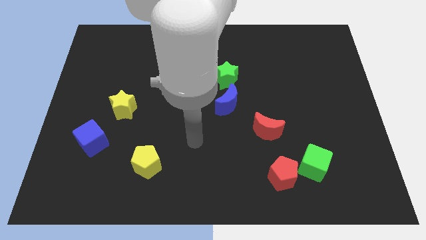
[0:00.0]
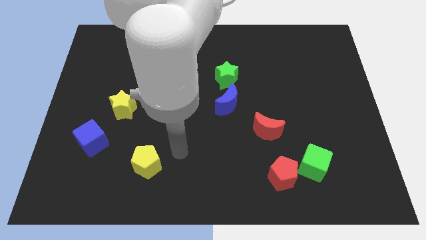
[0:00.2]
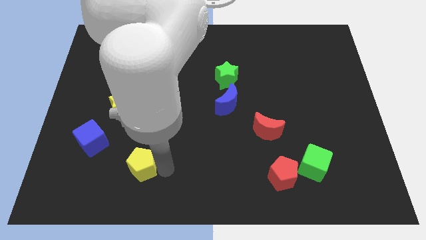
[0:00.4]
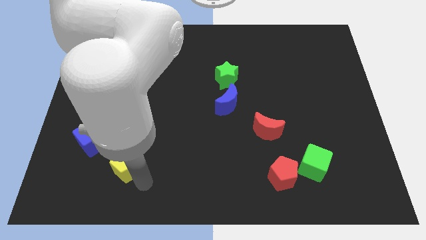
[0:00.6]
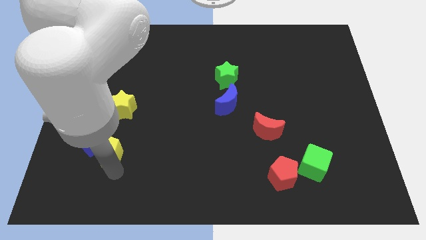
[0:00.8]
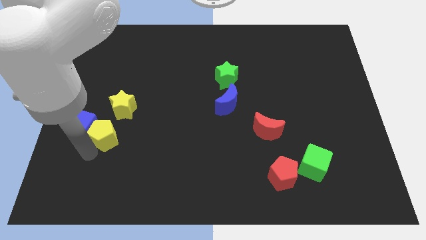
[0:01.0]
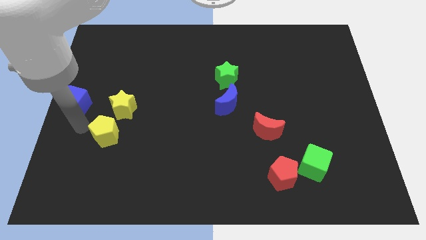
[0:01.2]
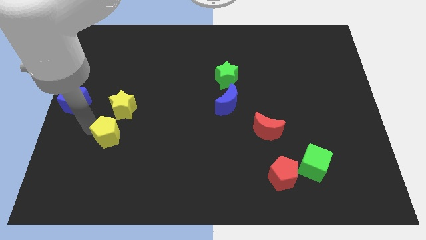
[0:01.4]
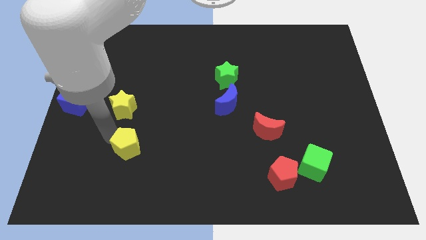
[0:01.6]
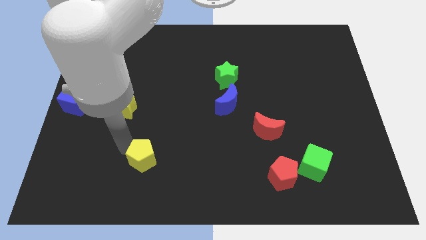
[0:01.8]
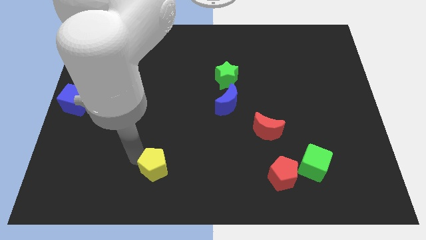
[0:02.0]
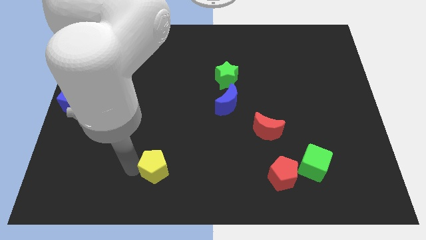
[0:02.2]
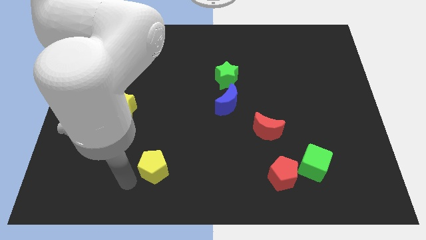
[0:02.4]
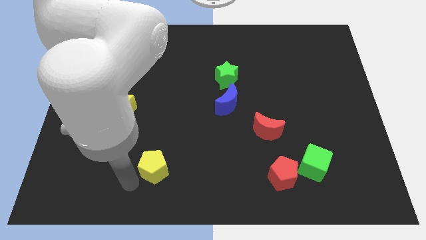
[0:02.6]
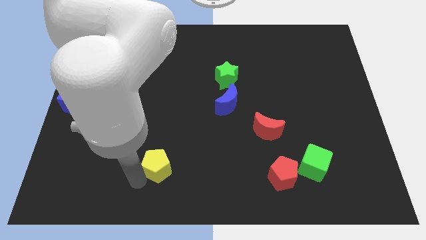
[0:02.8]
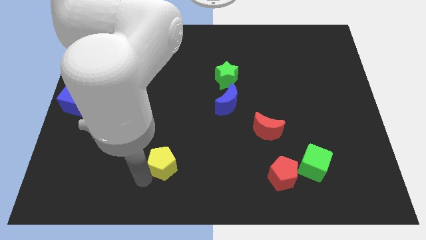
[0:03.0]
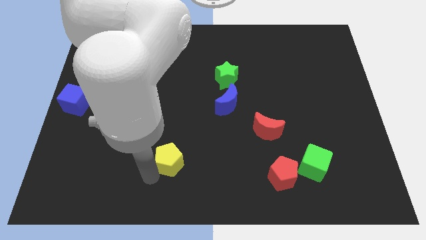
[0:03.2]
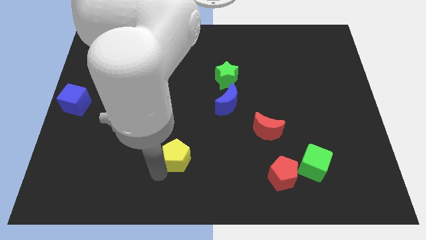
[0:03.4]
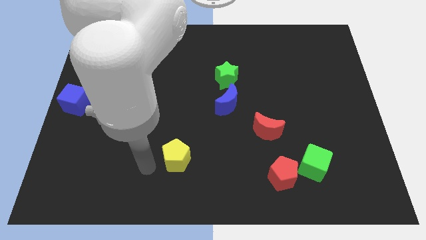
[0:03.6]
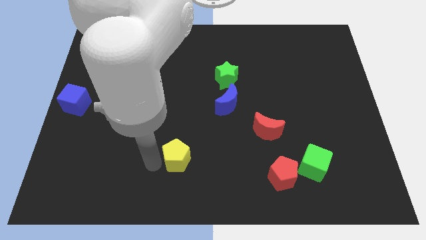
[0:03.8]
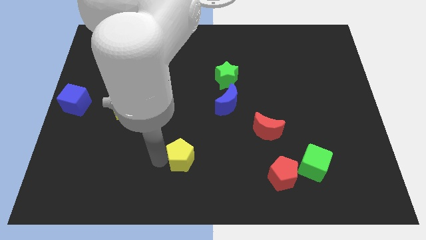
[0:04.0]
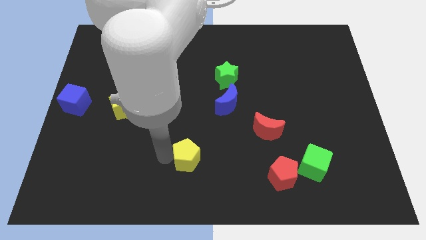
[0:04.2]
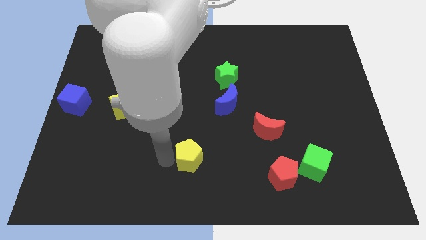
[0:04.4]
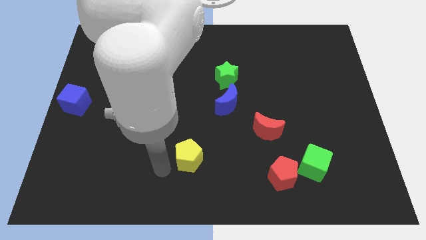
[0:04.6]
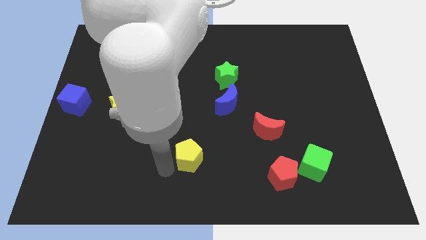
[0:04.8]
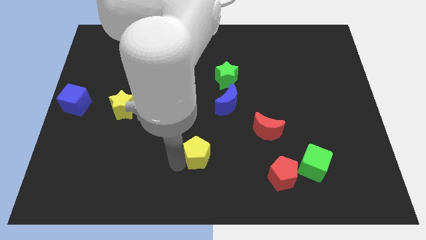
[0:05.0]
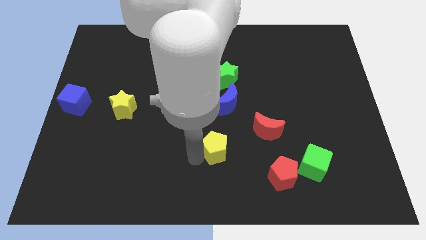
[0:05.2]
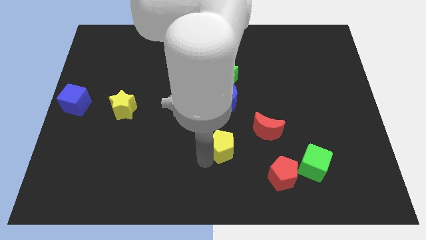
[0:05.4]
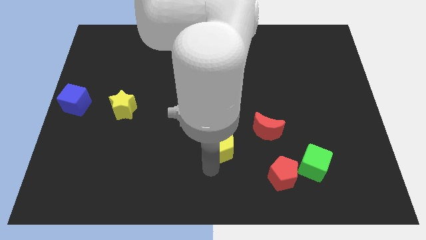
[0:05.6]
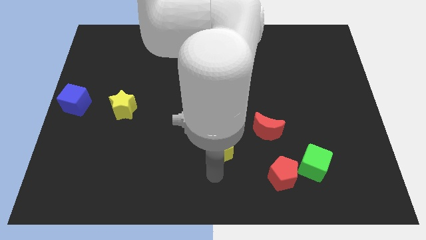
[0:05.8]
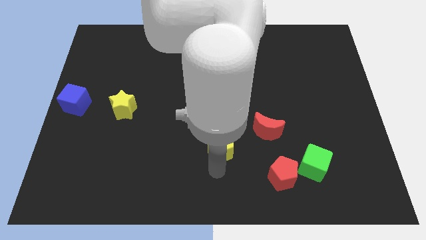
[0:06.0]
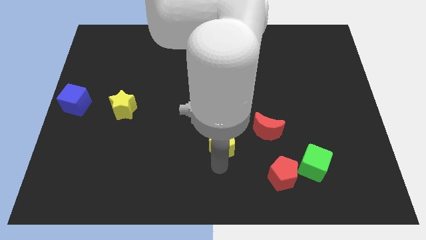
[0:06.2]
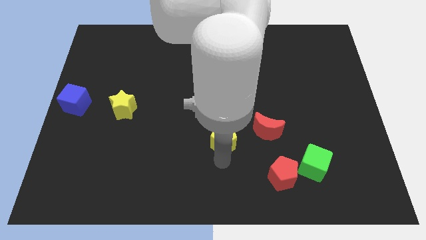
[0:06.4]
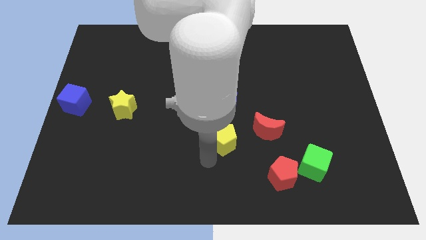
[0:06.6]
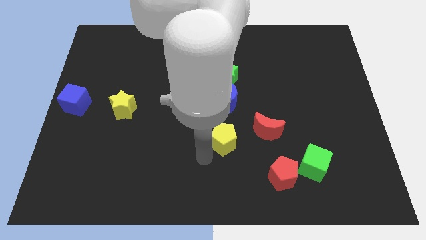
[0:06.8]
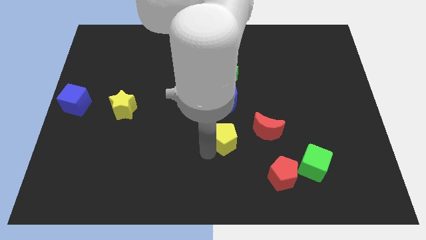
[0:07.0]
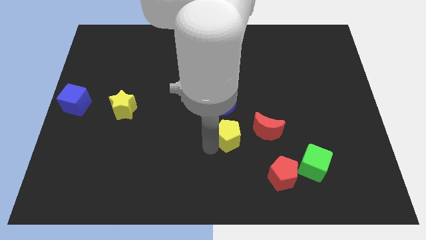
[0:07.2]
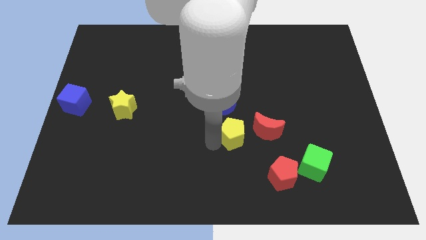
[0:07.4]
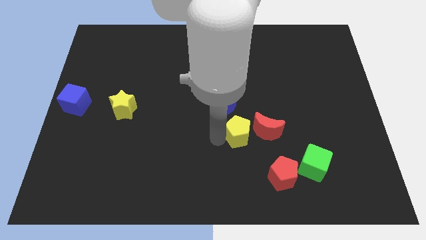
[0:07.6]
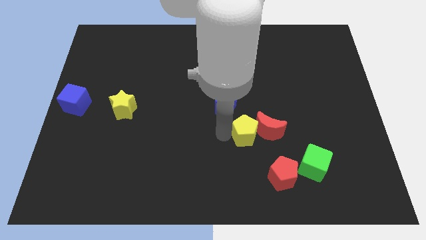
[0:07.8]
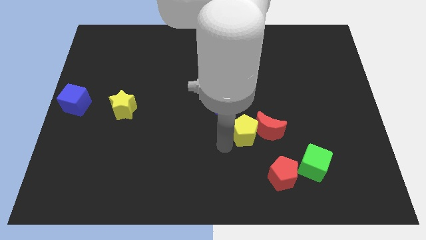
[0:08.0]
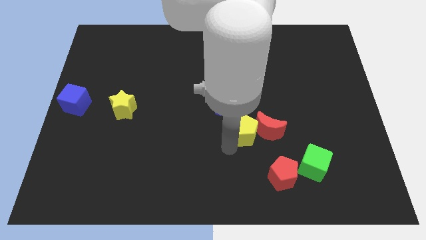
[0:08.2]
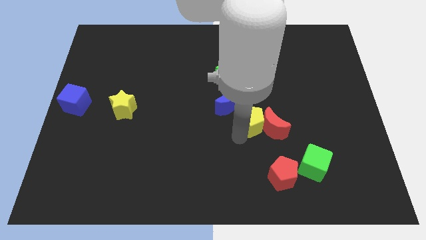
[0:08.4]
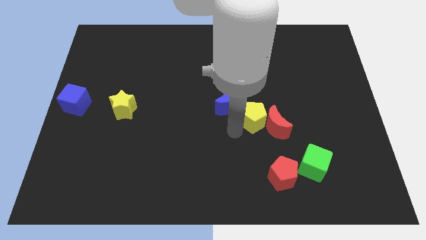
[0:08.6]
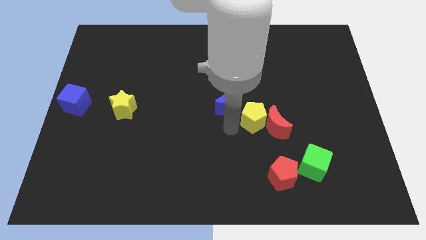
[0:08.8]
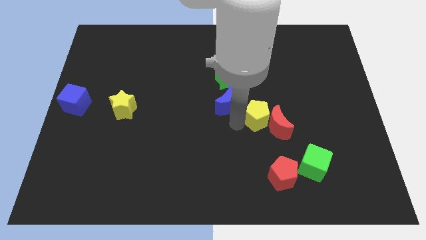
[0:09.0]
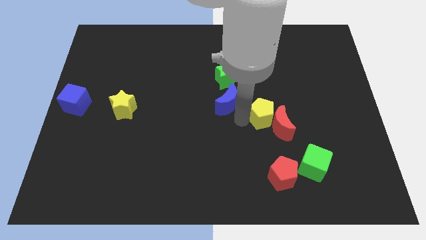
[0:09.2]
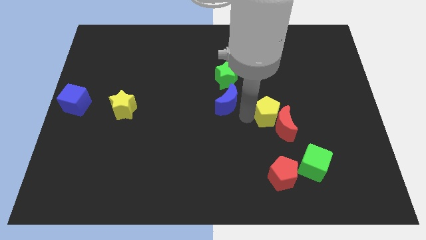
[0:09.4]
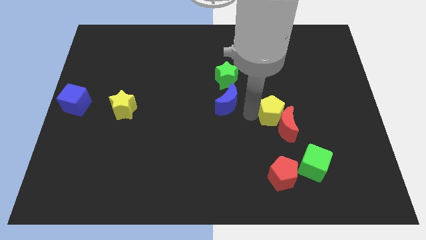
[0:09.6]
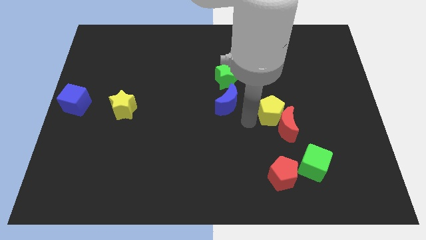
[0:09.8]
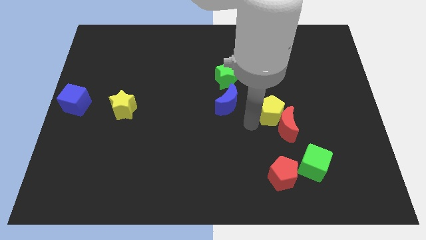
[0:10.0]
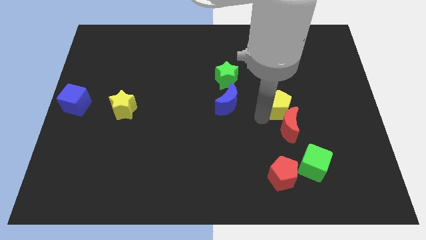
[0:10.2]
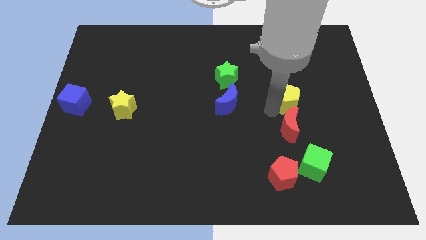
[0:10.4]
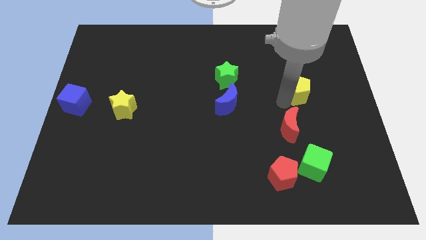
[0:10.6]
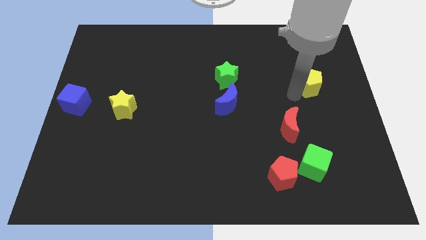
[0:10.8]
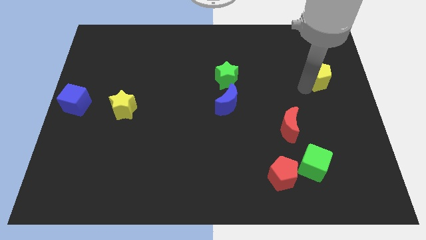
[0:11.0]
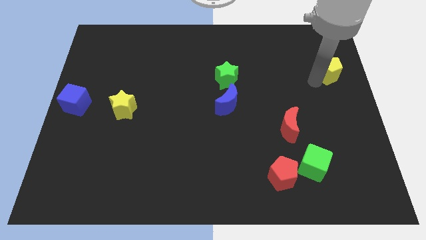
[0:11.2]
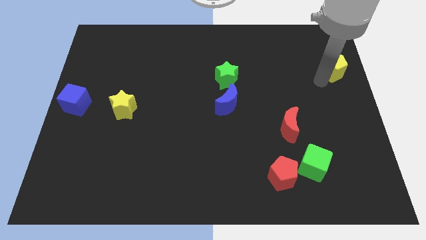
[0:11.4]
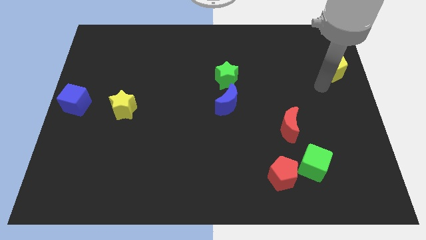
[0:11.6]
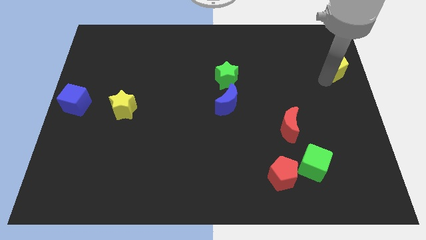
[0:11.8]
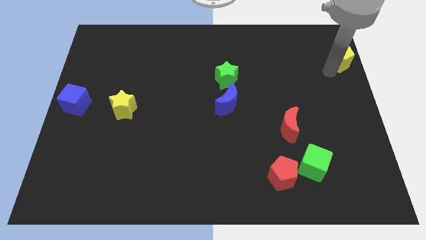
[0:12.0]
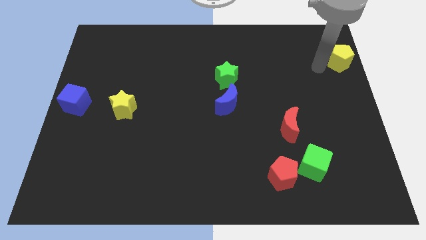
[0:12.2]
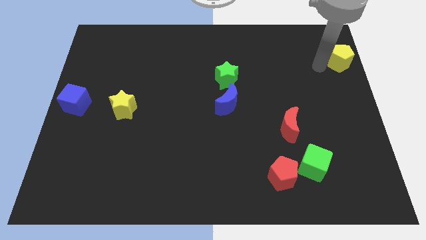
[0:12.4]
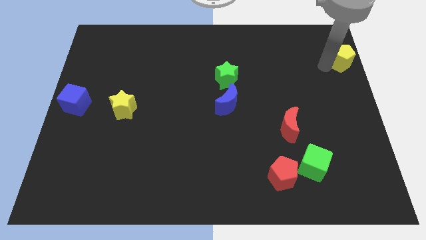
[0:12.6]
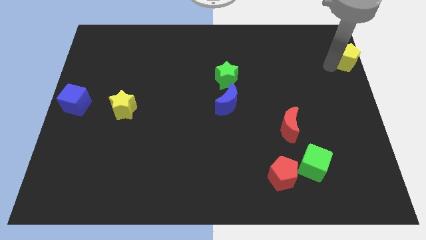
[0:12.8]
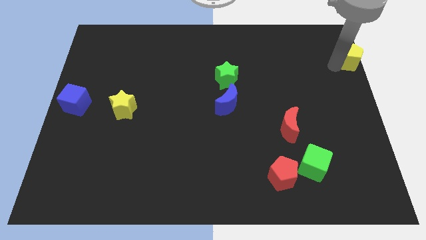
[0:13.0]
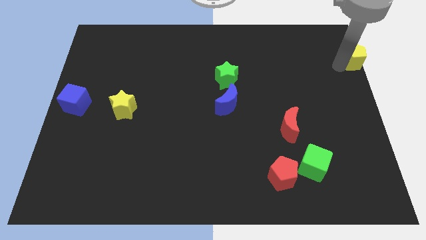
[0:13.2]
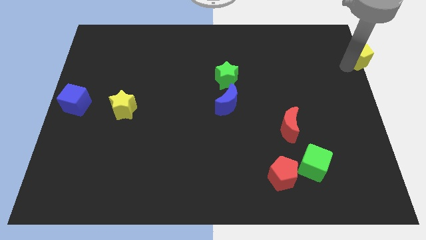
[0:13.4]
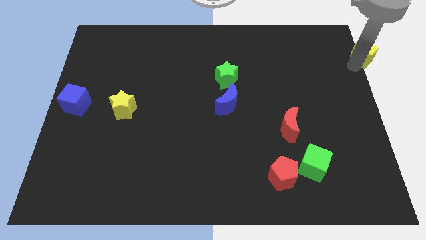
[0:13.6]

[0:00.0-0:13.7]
put the yellow pentagon to the top right
